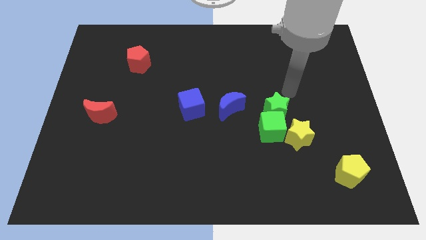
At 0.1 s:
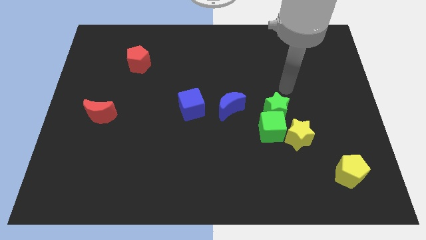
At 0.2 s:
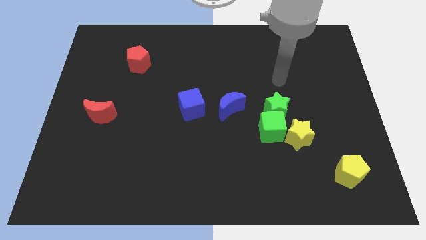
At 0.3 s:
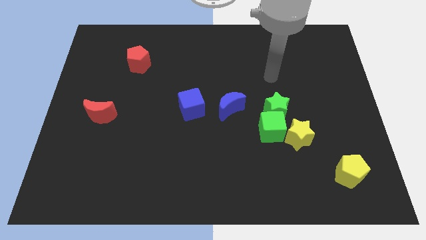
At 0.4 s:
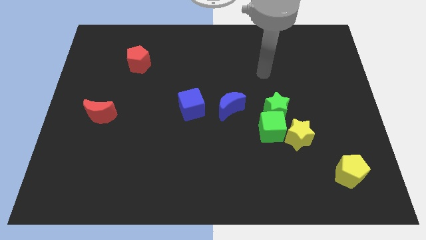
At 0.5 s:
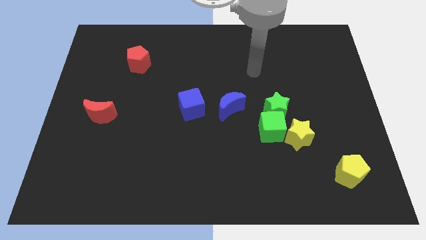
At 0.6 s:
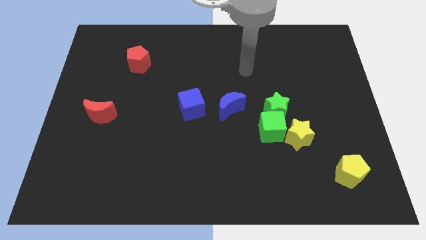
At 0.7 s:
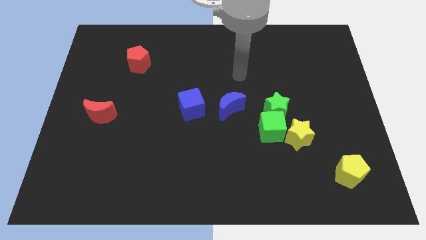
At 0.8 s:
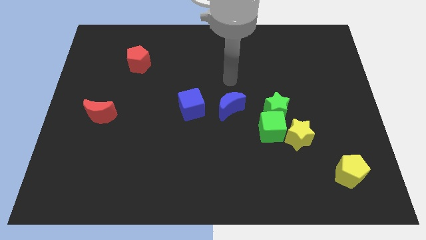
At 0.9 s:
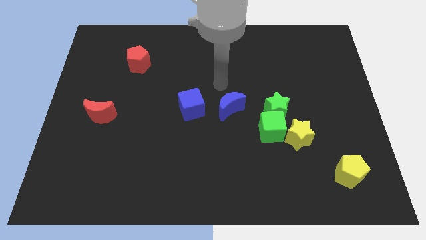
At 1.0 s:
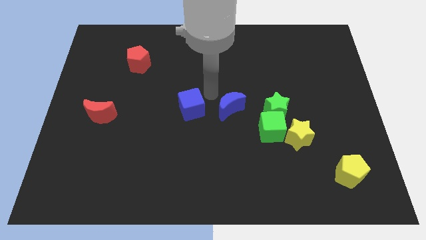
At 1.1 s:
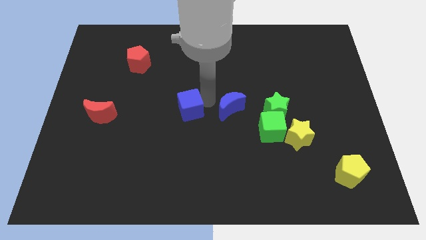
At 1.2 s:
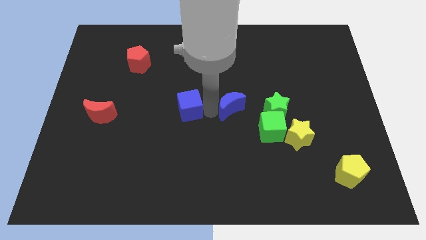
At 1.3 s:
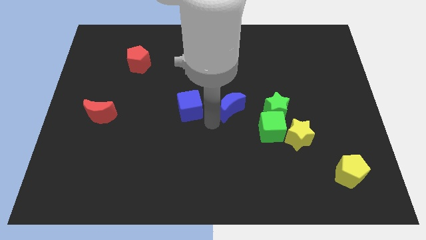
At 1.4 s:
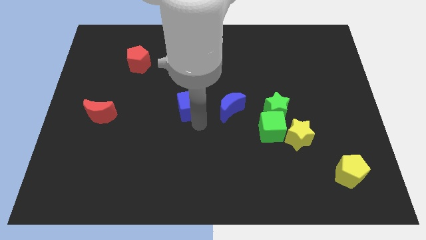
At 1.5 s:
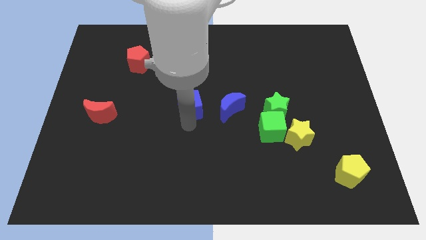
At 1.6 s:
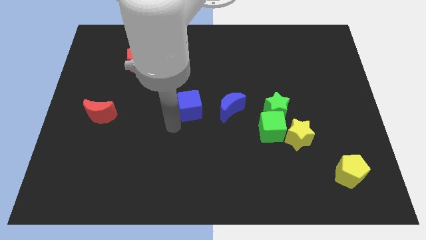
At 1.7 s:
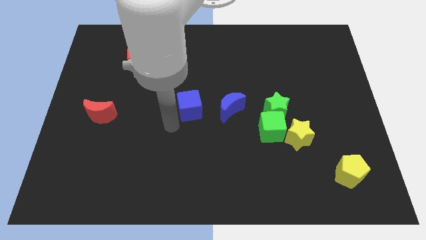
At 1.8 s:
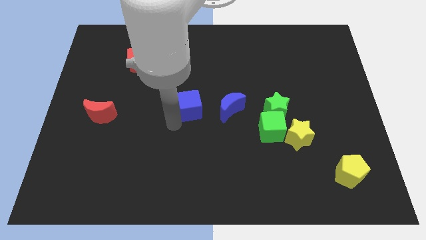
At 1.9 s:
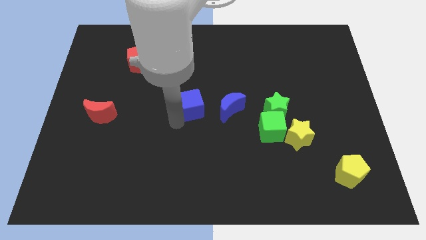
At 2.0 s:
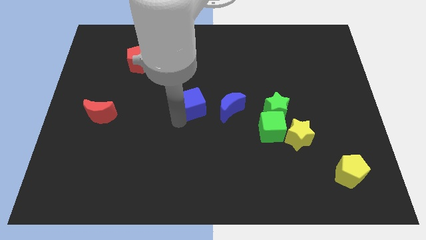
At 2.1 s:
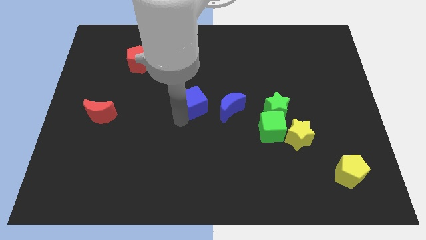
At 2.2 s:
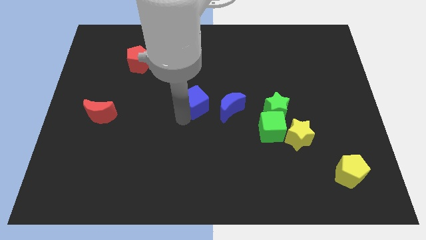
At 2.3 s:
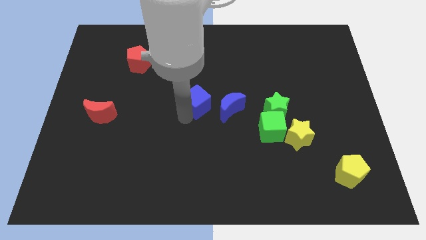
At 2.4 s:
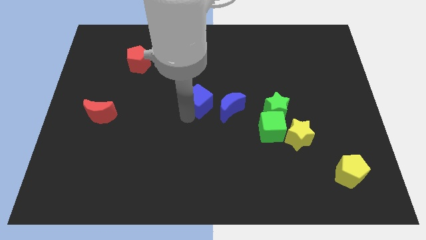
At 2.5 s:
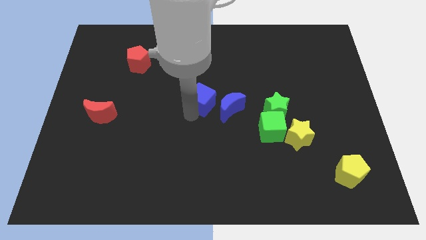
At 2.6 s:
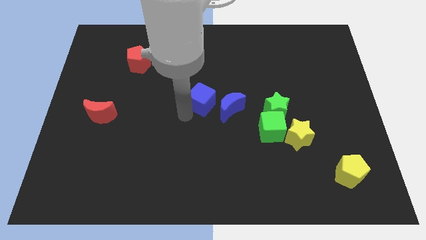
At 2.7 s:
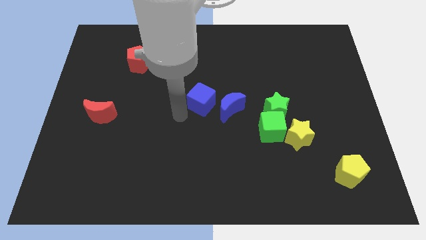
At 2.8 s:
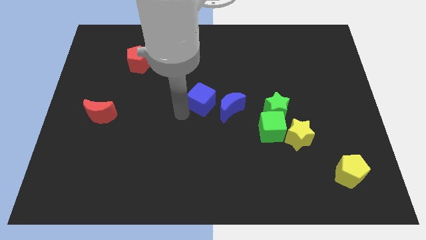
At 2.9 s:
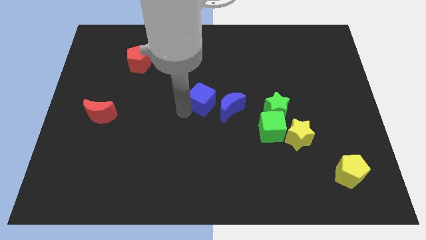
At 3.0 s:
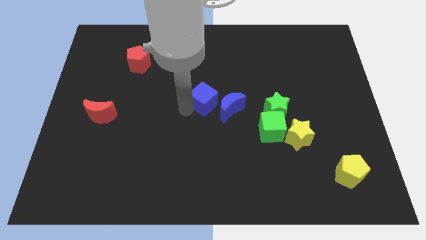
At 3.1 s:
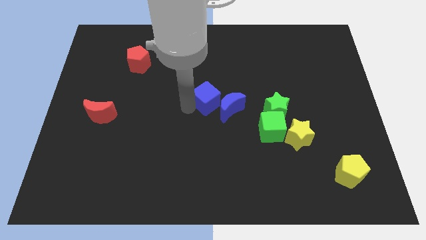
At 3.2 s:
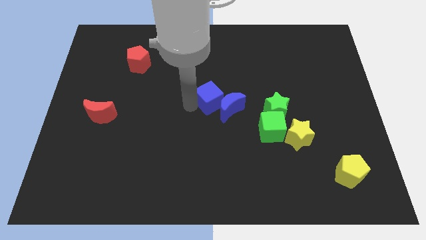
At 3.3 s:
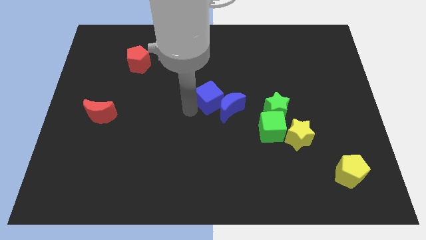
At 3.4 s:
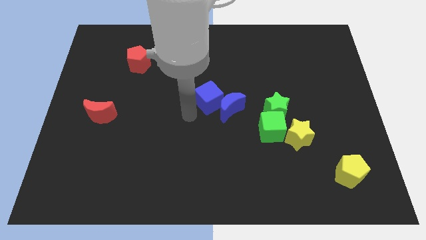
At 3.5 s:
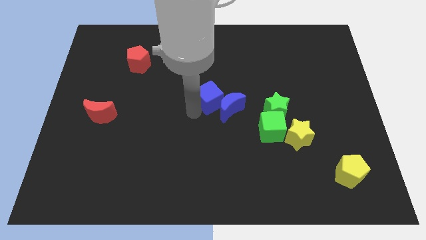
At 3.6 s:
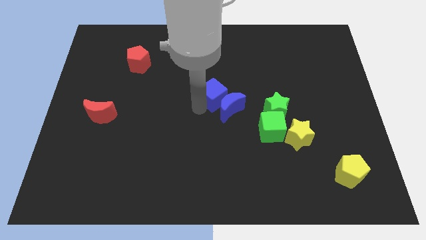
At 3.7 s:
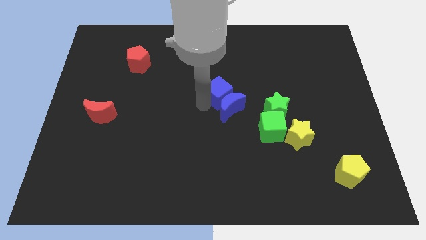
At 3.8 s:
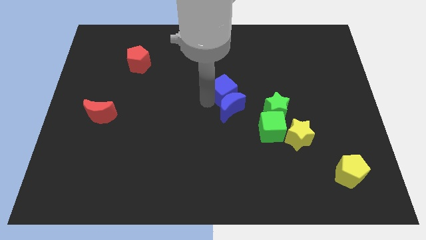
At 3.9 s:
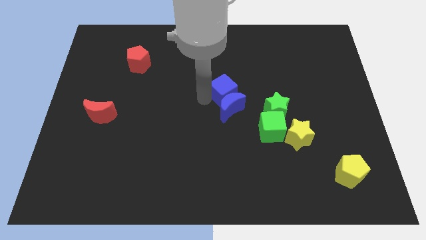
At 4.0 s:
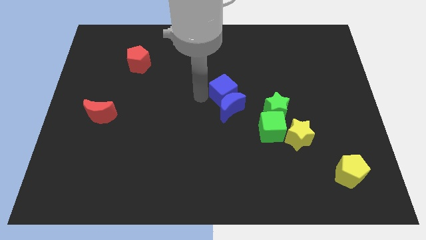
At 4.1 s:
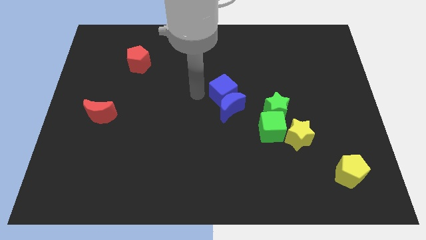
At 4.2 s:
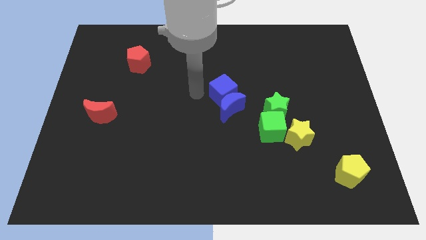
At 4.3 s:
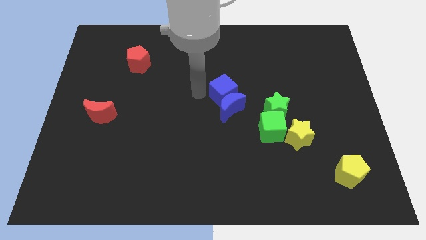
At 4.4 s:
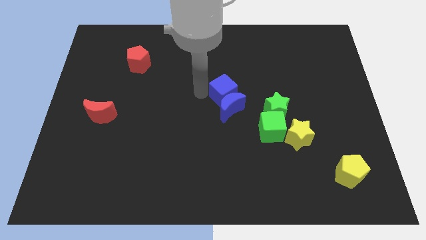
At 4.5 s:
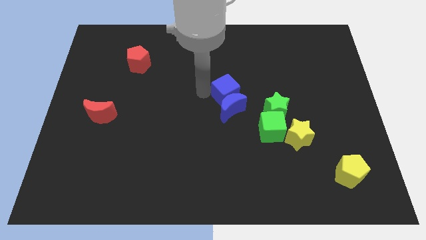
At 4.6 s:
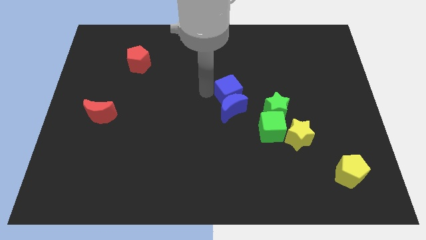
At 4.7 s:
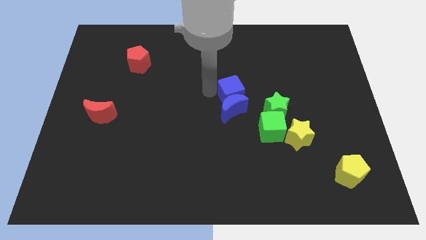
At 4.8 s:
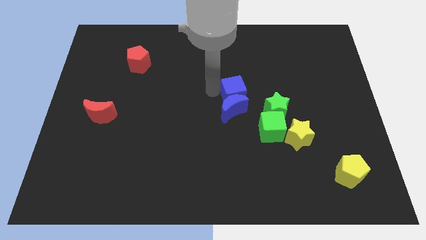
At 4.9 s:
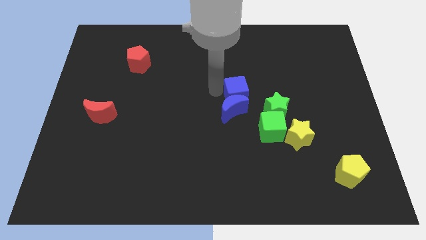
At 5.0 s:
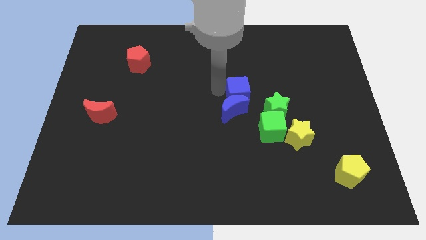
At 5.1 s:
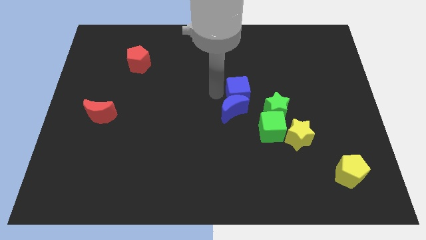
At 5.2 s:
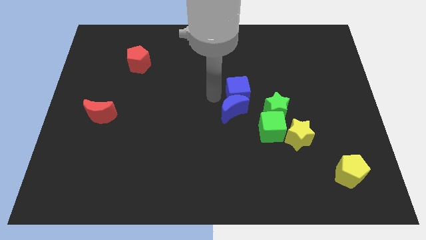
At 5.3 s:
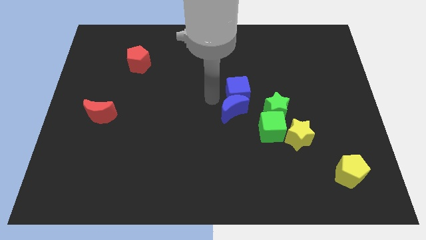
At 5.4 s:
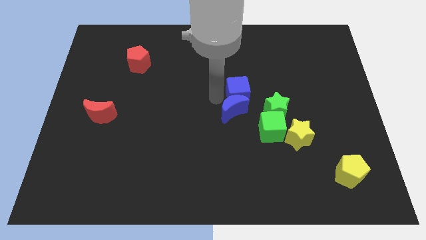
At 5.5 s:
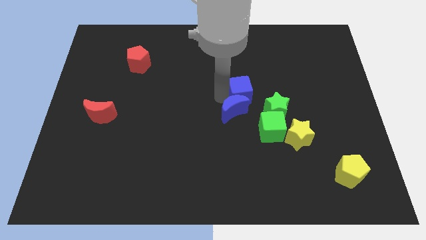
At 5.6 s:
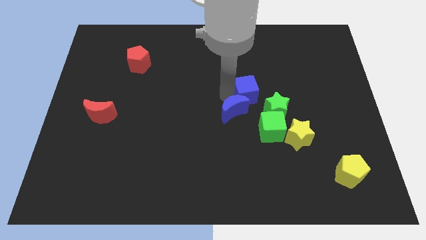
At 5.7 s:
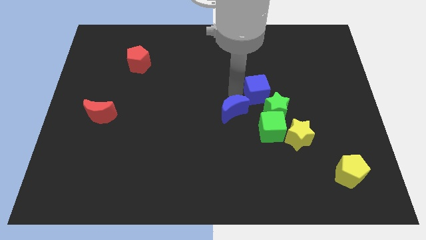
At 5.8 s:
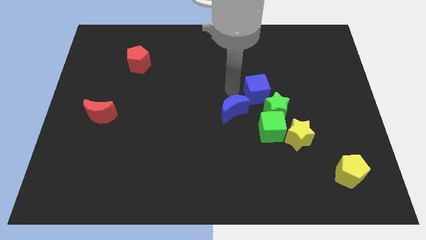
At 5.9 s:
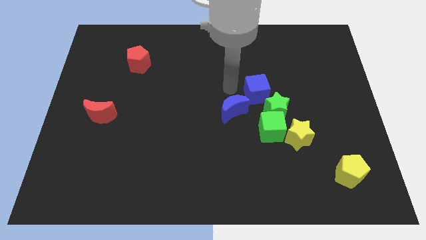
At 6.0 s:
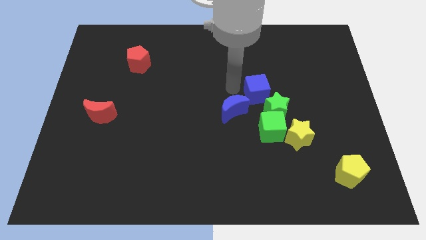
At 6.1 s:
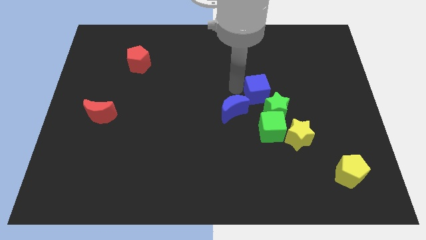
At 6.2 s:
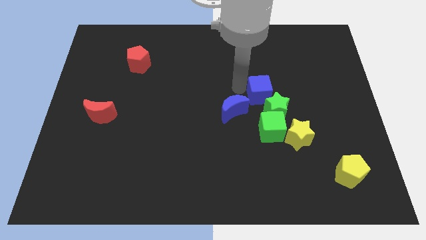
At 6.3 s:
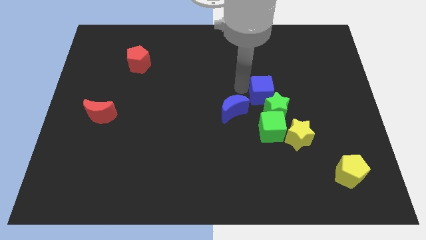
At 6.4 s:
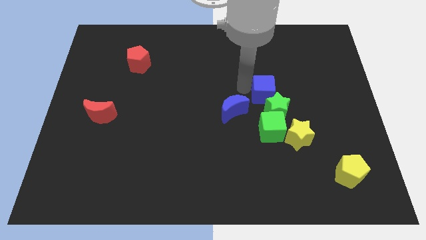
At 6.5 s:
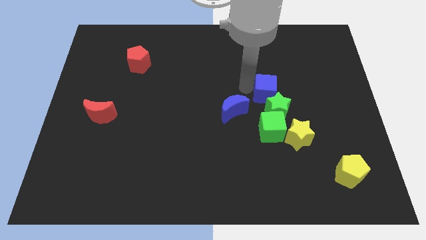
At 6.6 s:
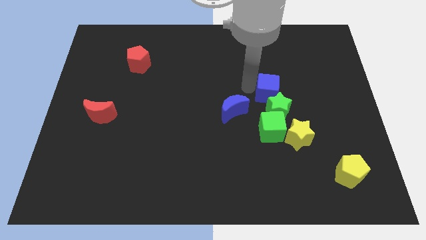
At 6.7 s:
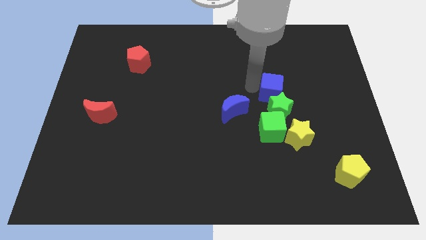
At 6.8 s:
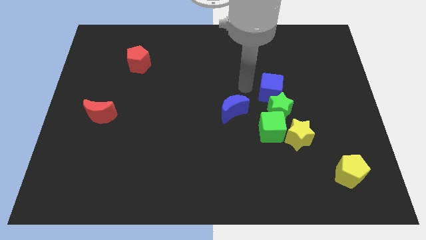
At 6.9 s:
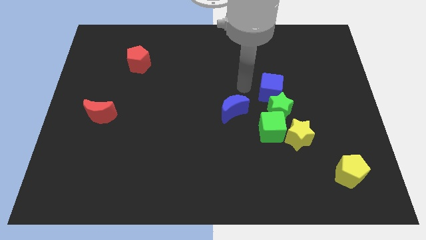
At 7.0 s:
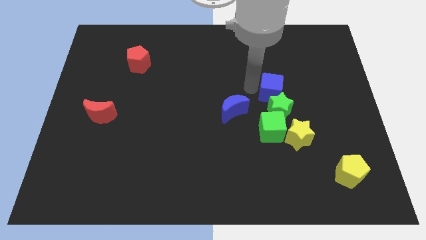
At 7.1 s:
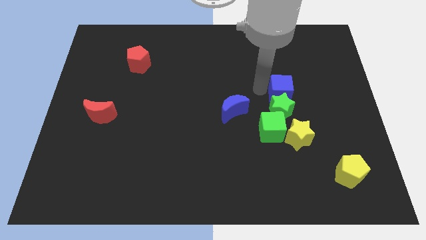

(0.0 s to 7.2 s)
slide the blue cube right

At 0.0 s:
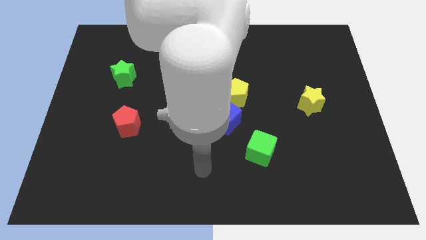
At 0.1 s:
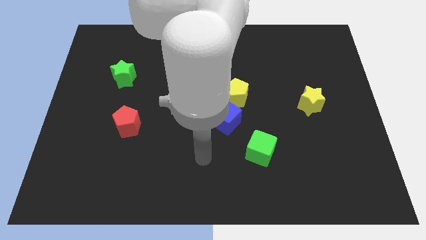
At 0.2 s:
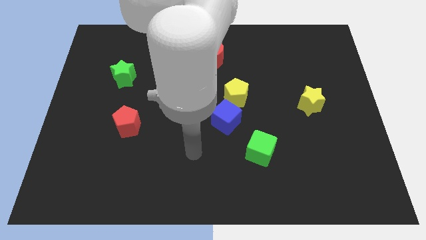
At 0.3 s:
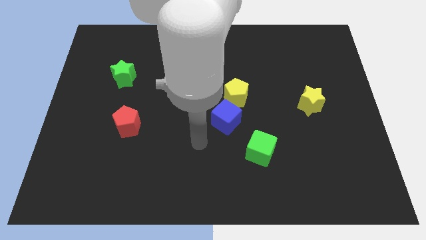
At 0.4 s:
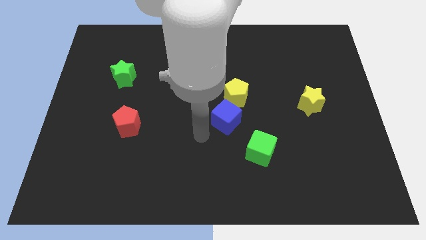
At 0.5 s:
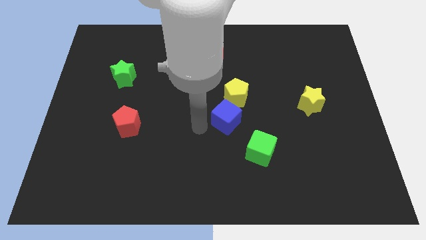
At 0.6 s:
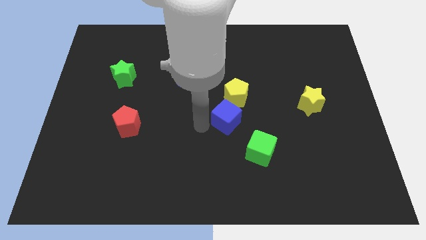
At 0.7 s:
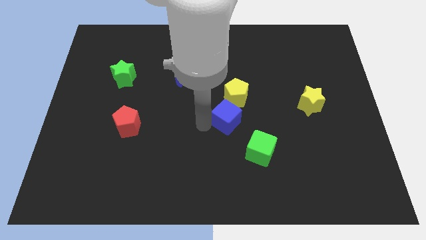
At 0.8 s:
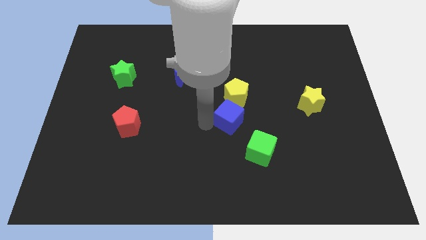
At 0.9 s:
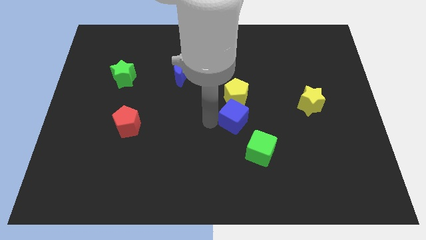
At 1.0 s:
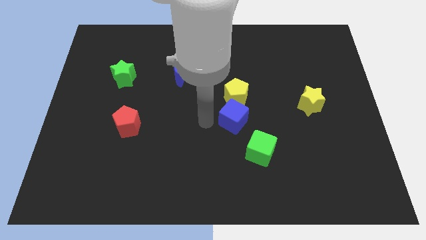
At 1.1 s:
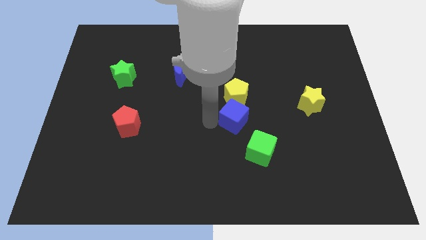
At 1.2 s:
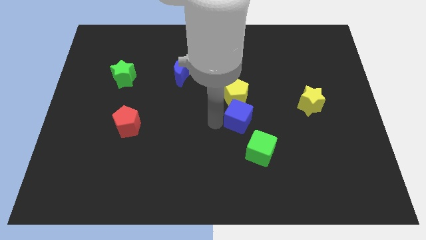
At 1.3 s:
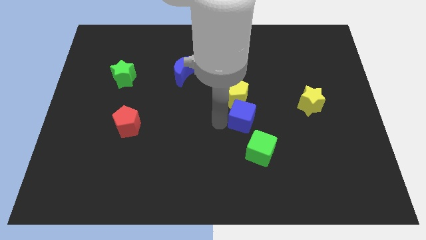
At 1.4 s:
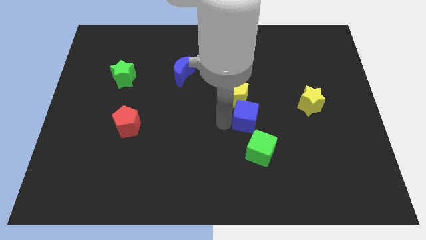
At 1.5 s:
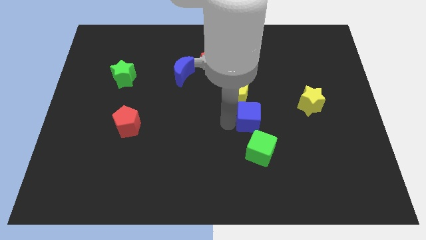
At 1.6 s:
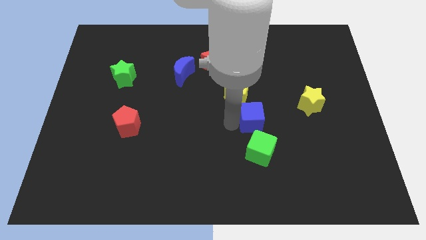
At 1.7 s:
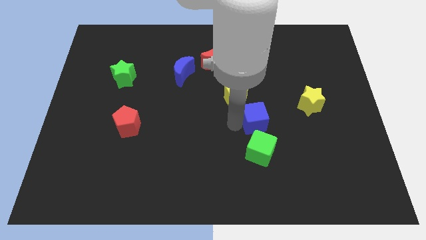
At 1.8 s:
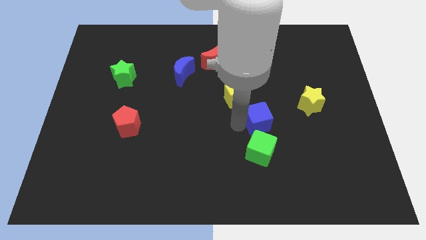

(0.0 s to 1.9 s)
push the blue cube to the right slightly
